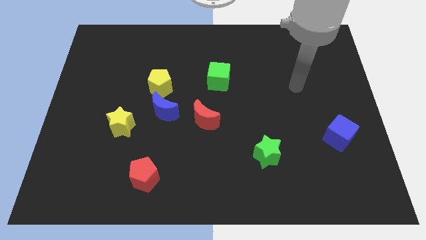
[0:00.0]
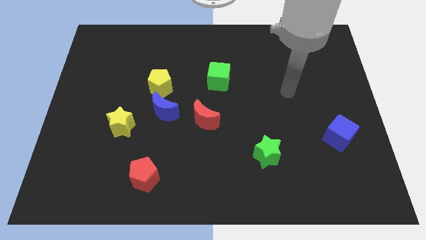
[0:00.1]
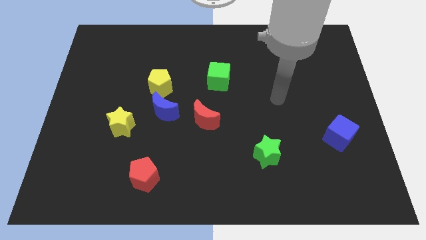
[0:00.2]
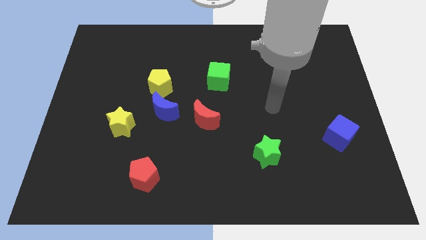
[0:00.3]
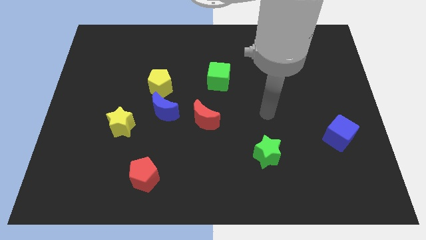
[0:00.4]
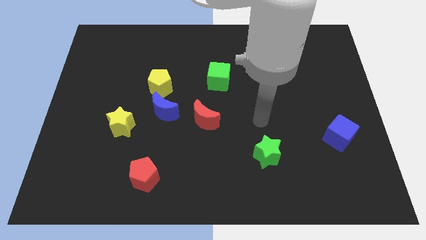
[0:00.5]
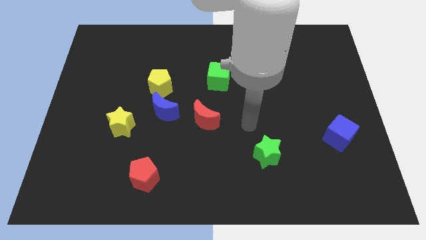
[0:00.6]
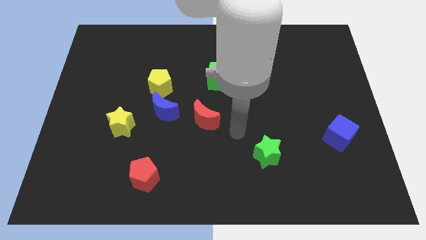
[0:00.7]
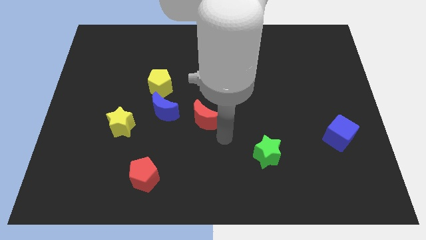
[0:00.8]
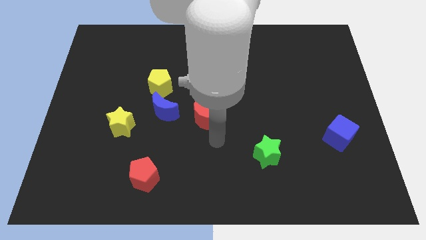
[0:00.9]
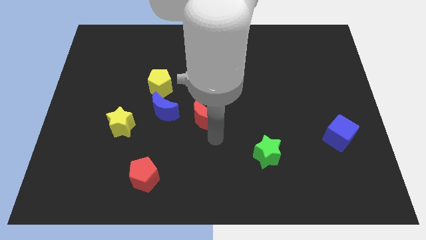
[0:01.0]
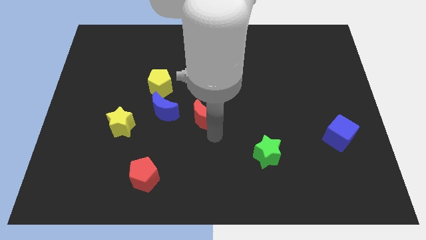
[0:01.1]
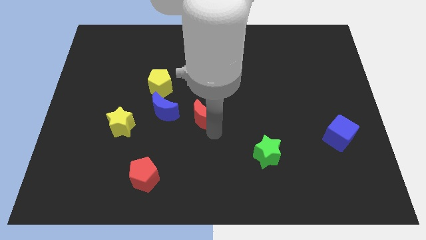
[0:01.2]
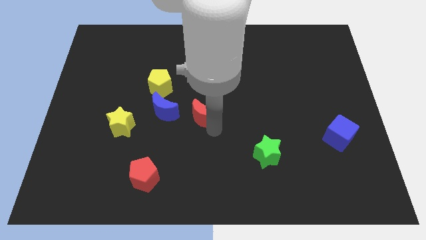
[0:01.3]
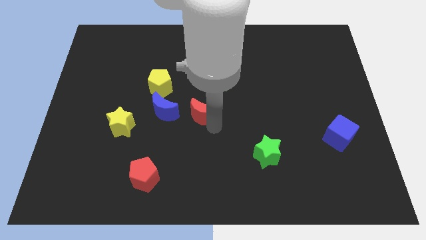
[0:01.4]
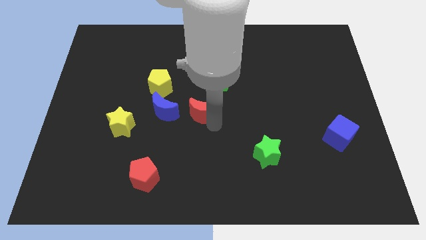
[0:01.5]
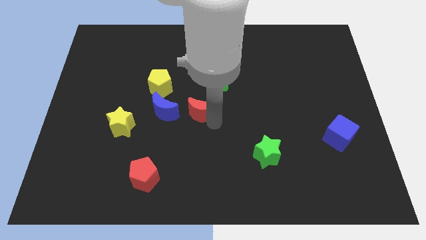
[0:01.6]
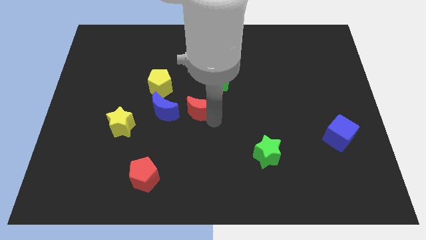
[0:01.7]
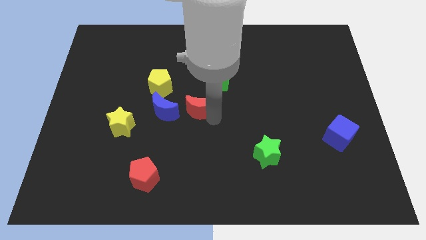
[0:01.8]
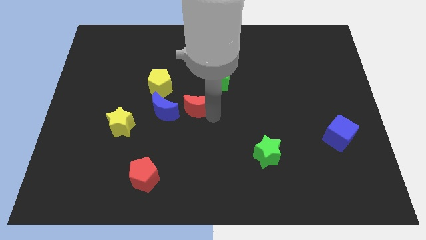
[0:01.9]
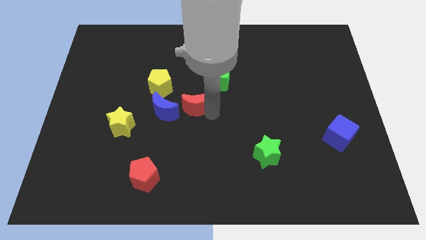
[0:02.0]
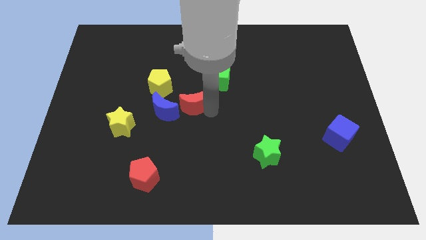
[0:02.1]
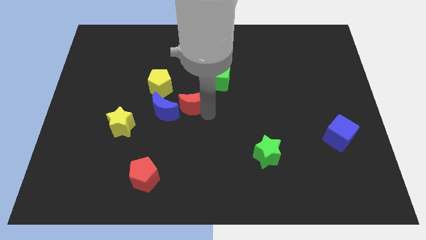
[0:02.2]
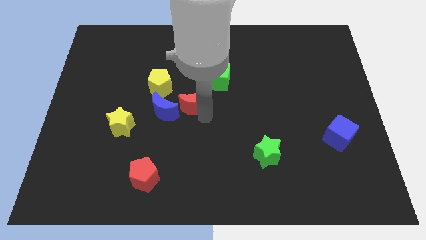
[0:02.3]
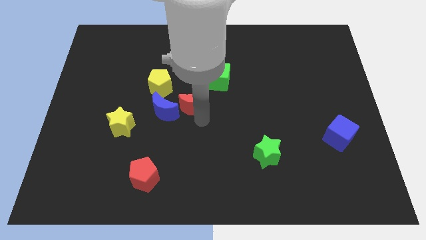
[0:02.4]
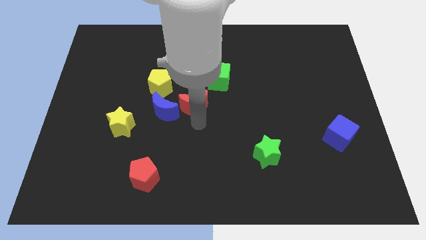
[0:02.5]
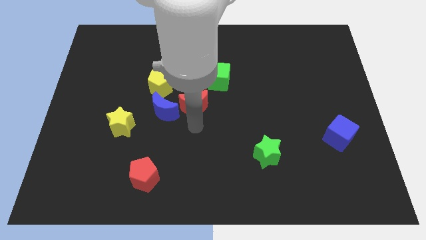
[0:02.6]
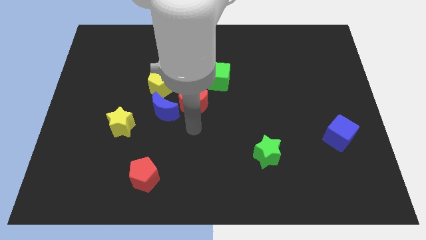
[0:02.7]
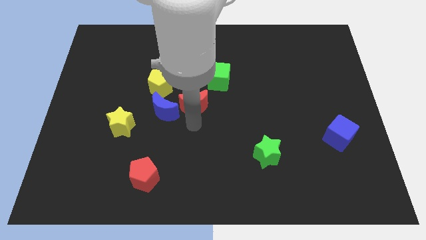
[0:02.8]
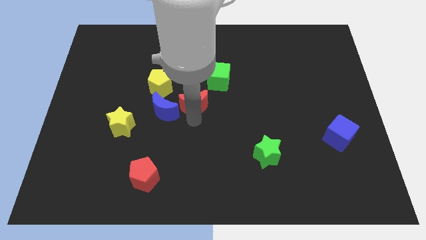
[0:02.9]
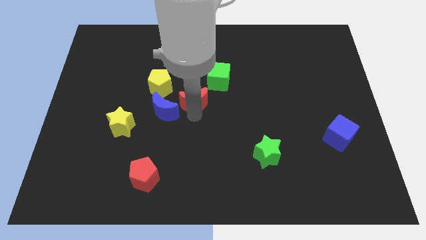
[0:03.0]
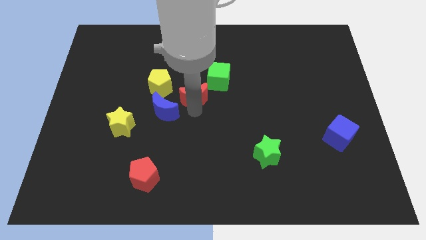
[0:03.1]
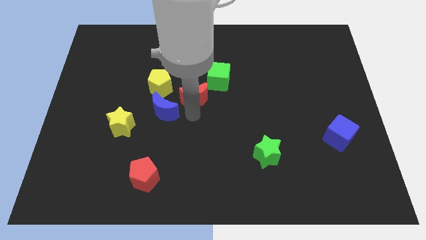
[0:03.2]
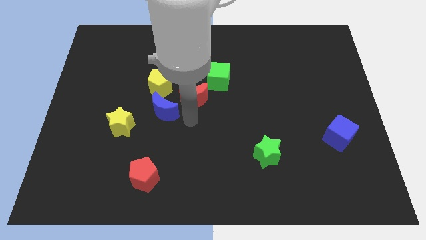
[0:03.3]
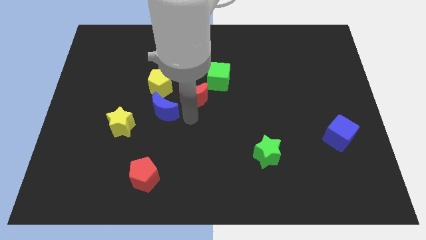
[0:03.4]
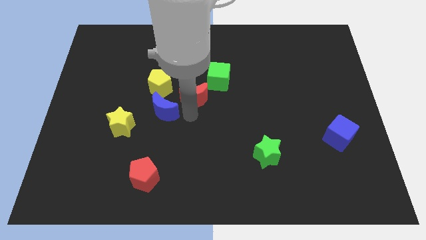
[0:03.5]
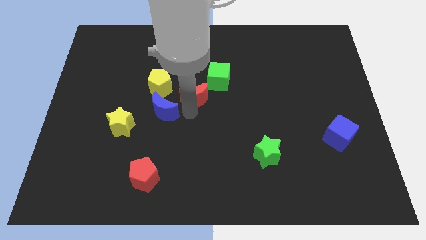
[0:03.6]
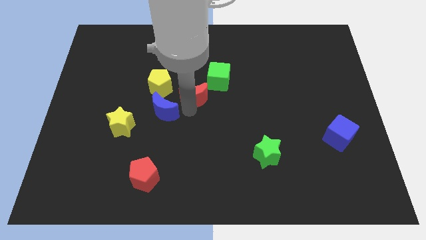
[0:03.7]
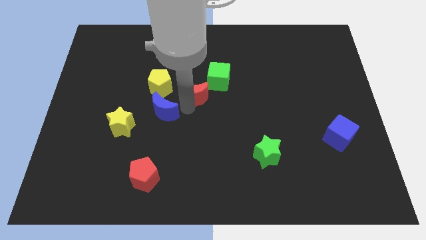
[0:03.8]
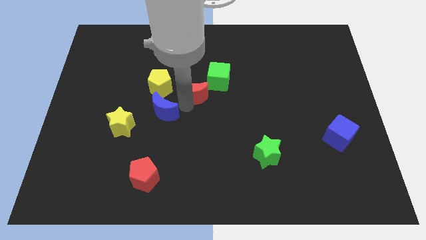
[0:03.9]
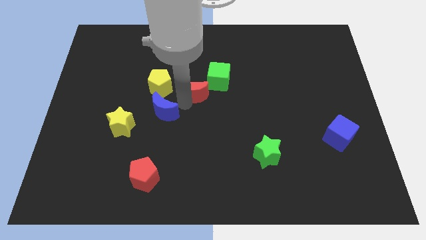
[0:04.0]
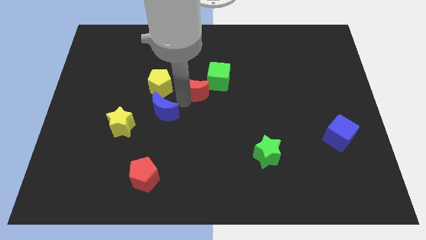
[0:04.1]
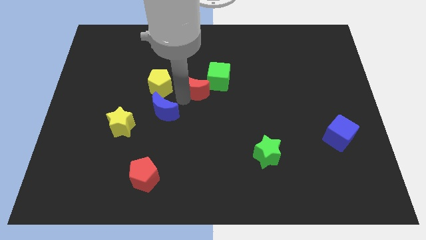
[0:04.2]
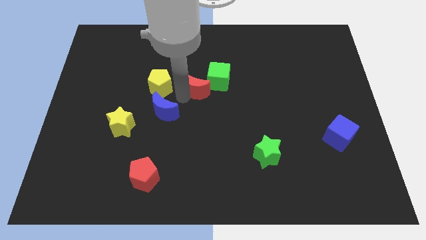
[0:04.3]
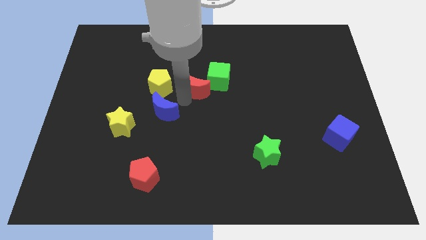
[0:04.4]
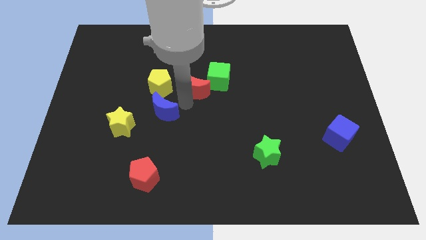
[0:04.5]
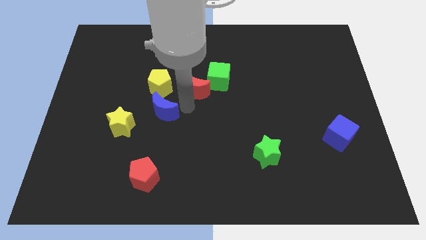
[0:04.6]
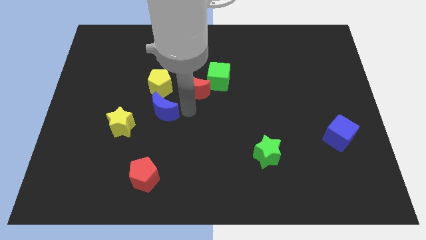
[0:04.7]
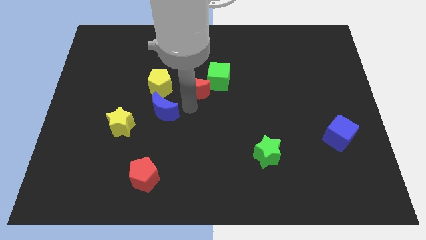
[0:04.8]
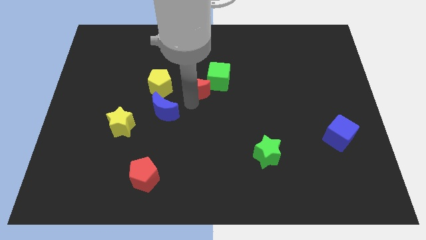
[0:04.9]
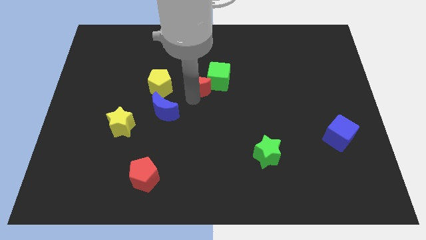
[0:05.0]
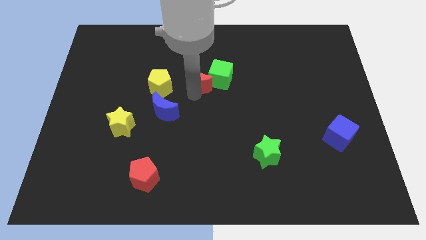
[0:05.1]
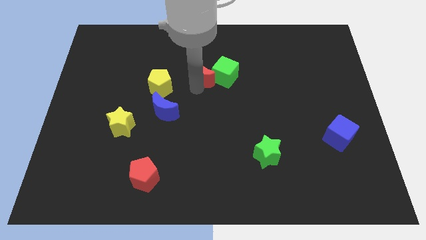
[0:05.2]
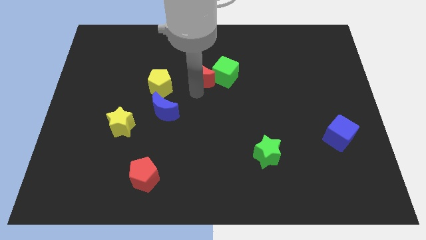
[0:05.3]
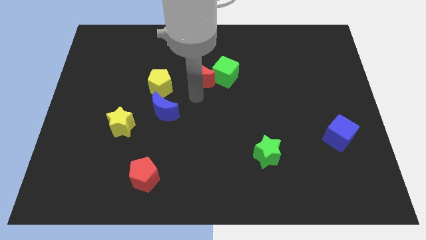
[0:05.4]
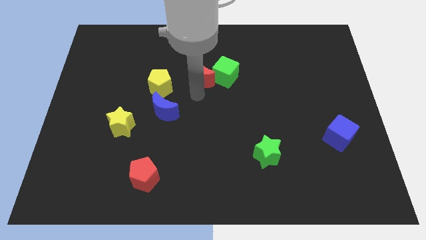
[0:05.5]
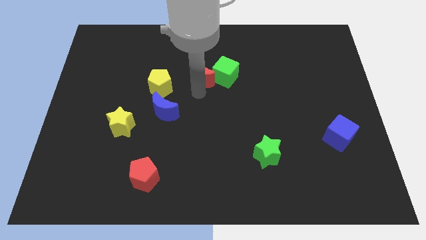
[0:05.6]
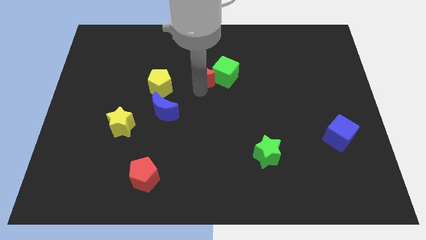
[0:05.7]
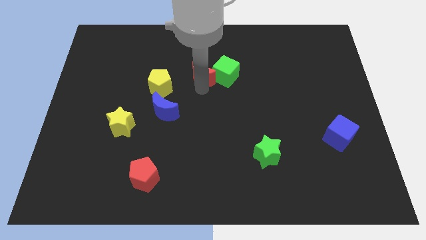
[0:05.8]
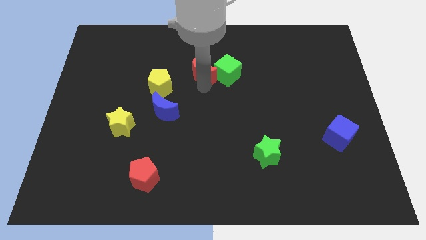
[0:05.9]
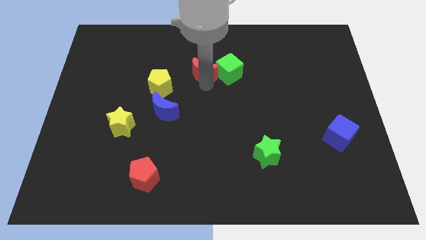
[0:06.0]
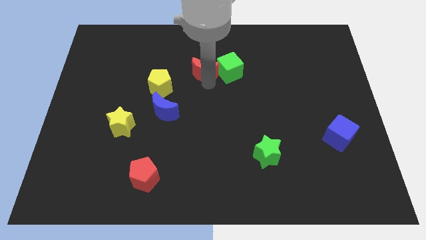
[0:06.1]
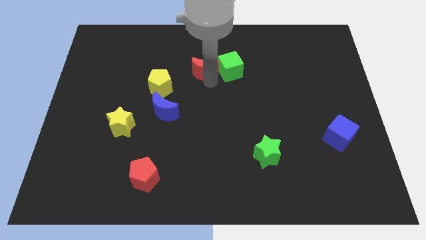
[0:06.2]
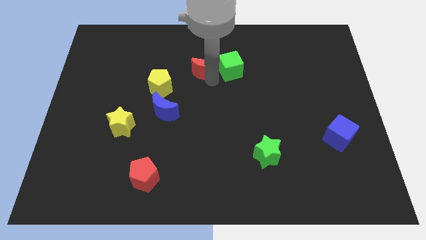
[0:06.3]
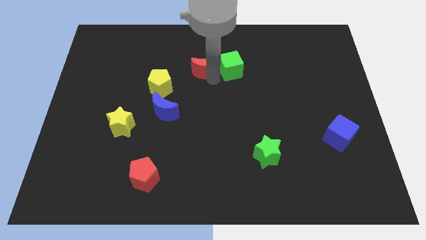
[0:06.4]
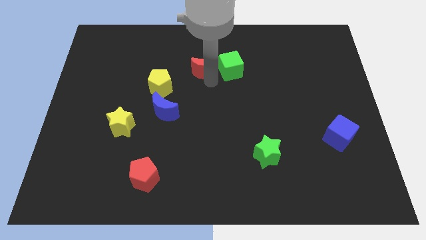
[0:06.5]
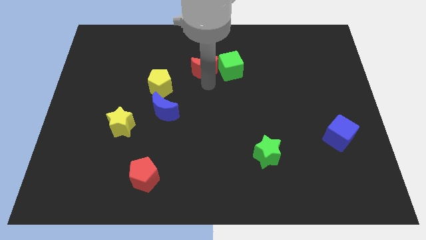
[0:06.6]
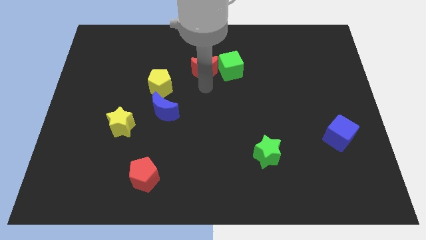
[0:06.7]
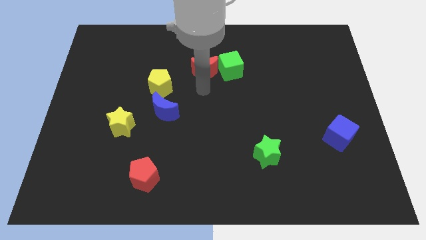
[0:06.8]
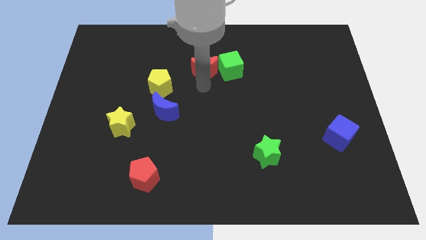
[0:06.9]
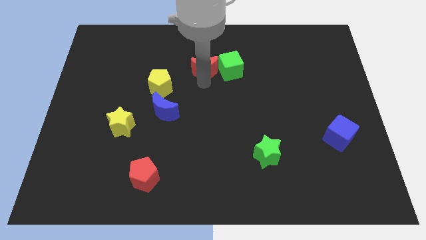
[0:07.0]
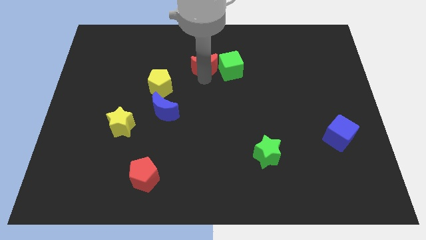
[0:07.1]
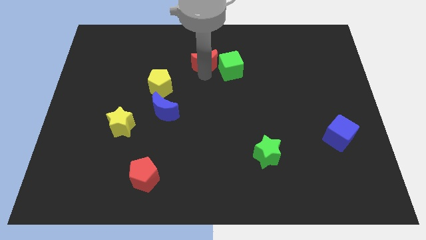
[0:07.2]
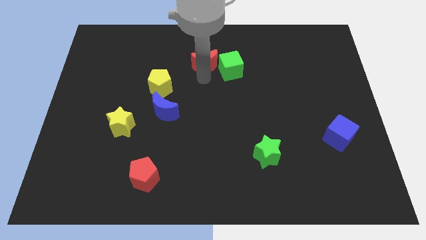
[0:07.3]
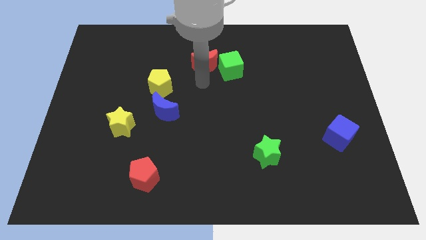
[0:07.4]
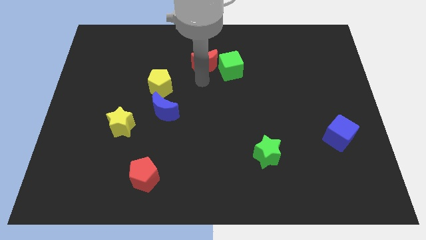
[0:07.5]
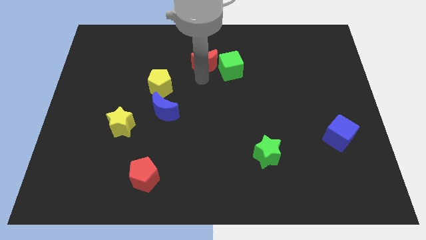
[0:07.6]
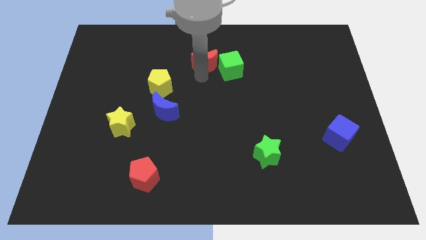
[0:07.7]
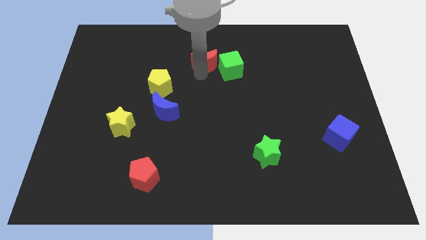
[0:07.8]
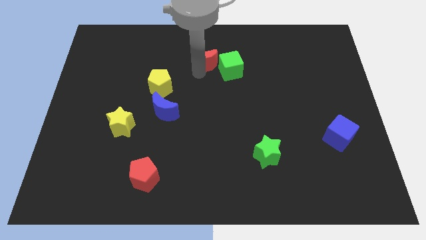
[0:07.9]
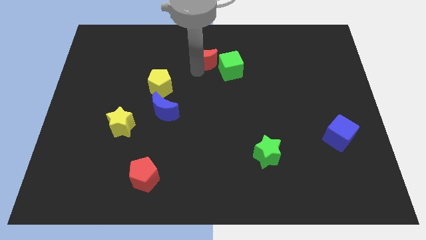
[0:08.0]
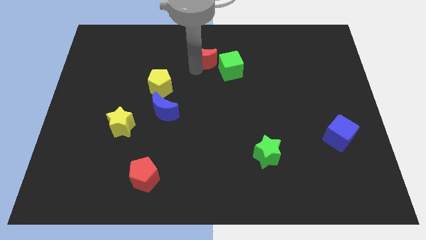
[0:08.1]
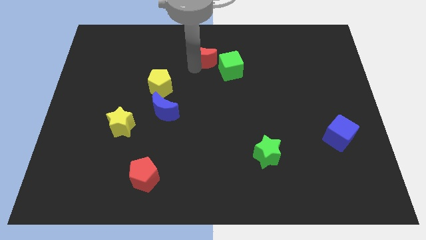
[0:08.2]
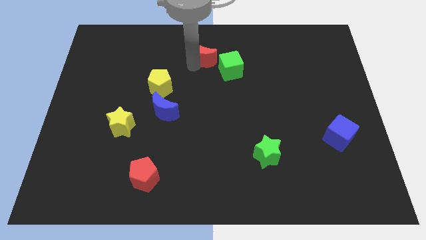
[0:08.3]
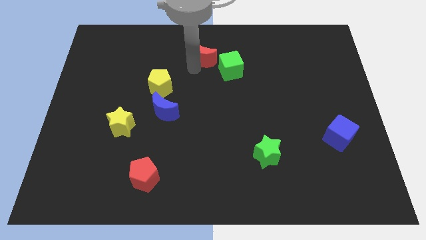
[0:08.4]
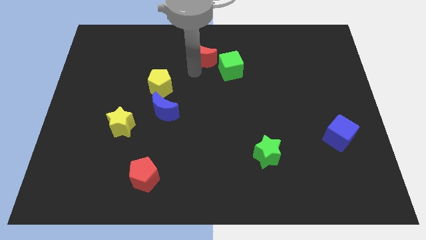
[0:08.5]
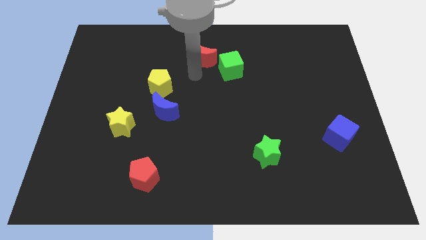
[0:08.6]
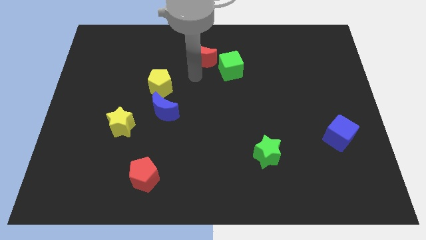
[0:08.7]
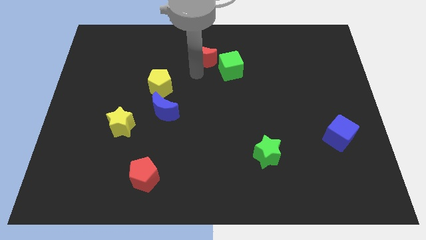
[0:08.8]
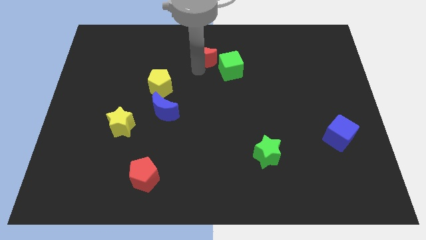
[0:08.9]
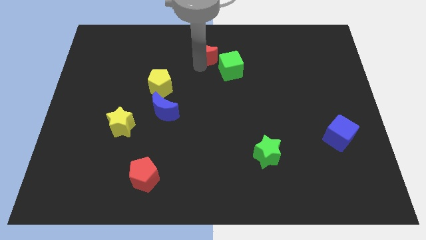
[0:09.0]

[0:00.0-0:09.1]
put the red moon to the towards your base
